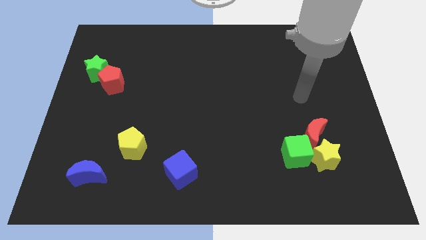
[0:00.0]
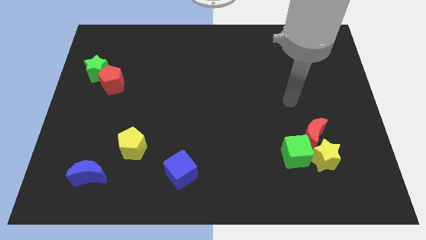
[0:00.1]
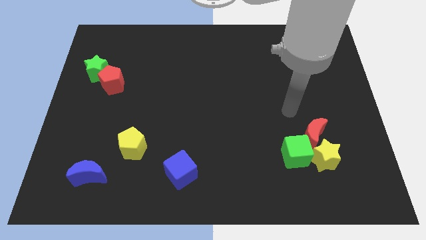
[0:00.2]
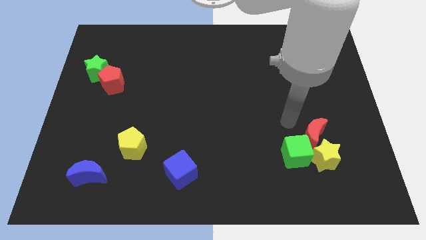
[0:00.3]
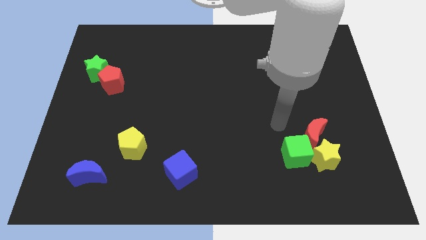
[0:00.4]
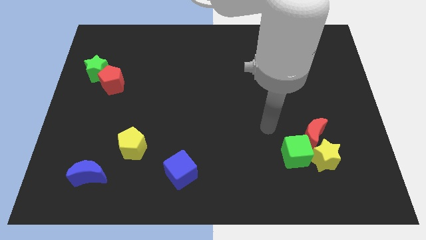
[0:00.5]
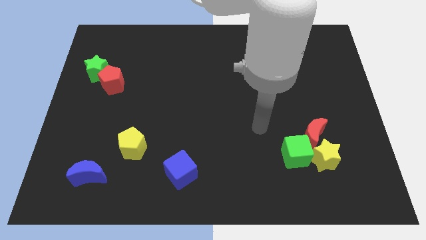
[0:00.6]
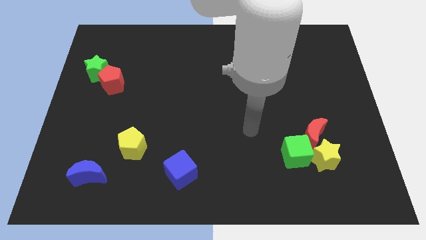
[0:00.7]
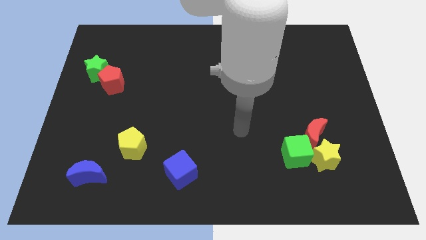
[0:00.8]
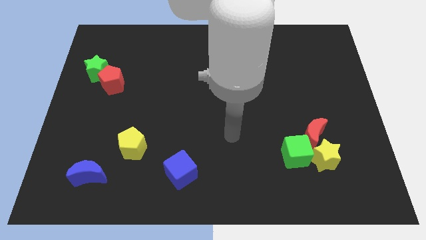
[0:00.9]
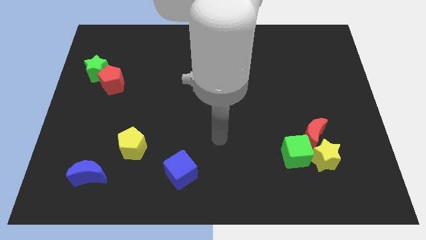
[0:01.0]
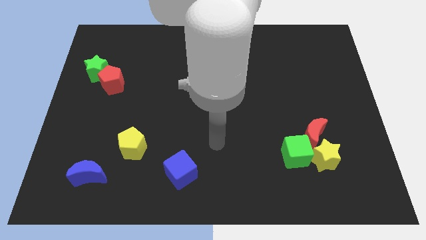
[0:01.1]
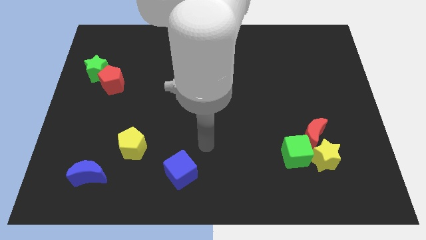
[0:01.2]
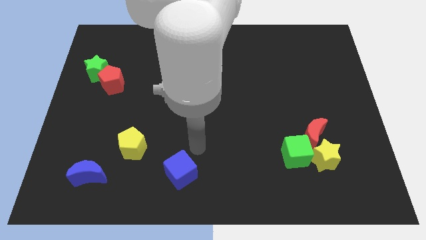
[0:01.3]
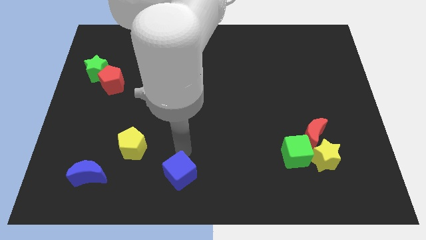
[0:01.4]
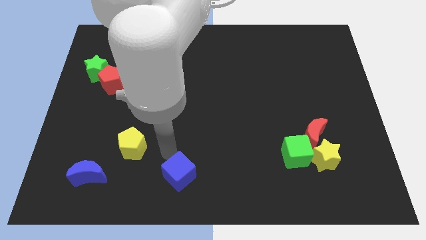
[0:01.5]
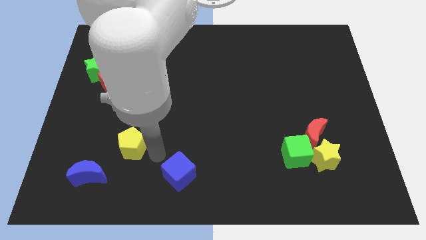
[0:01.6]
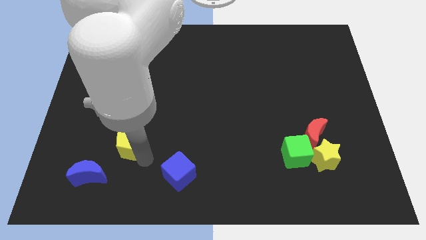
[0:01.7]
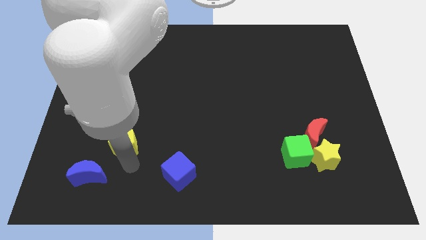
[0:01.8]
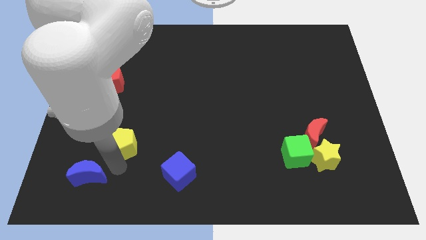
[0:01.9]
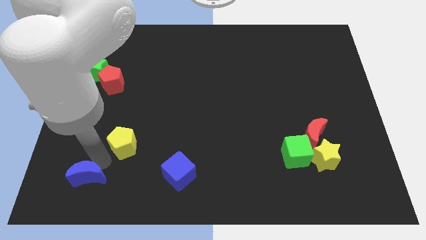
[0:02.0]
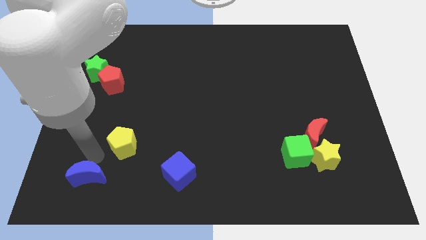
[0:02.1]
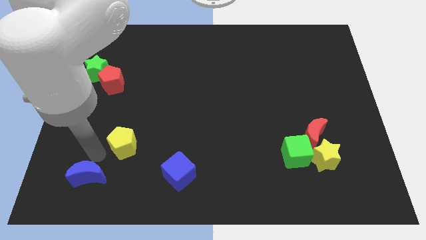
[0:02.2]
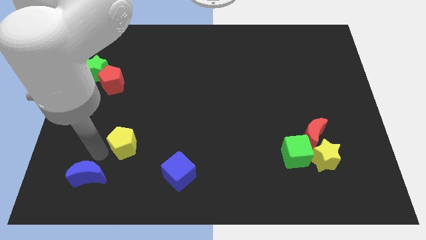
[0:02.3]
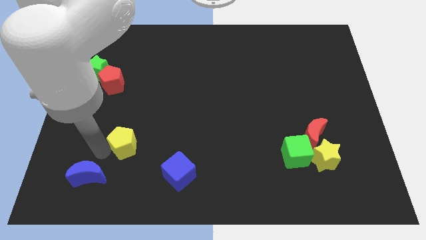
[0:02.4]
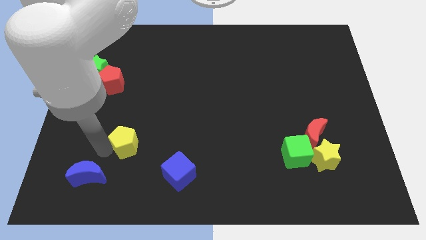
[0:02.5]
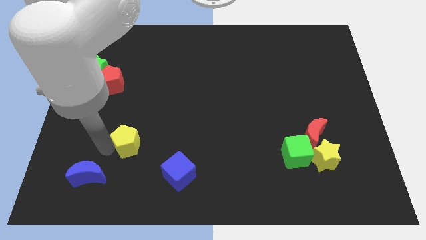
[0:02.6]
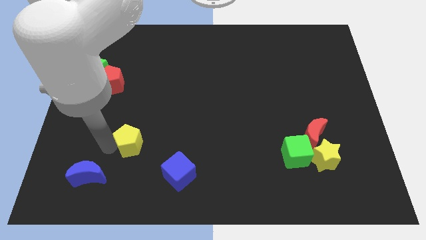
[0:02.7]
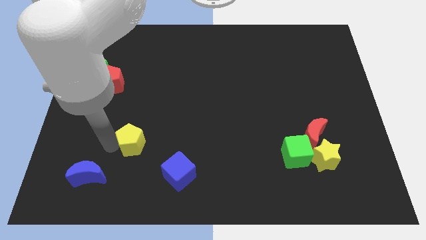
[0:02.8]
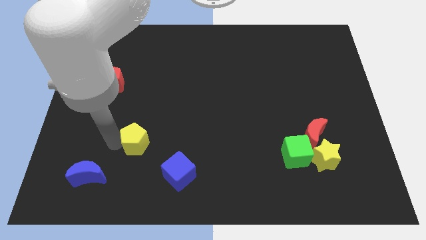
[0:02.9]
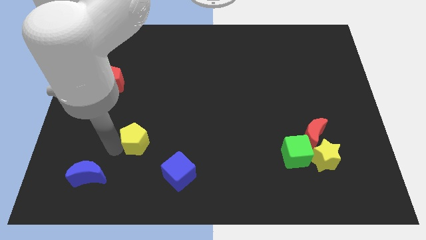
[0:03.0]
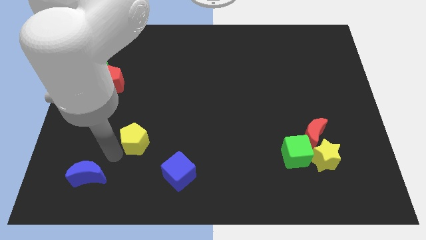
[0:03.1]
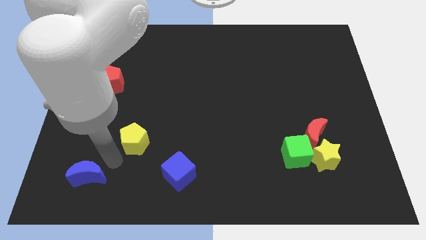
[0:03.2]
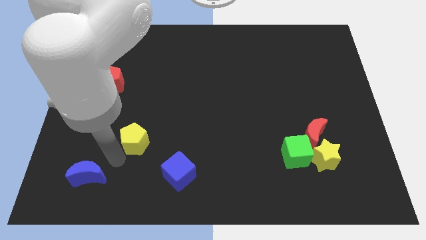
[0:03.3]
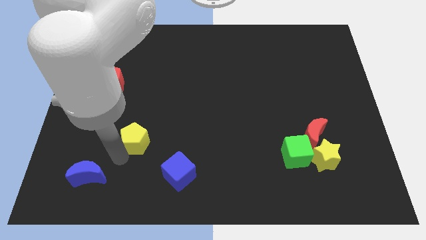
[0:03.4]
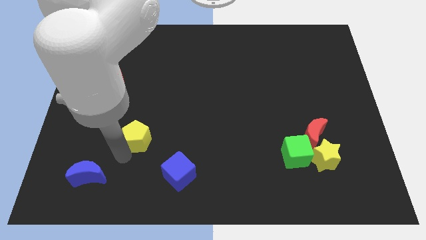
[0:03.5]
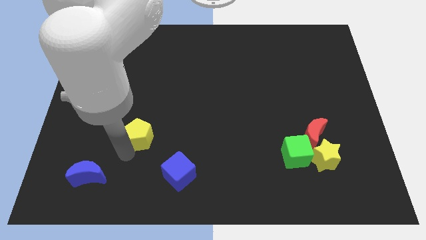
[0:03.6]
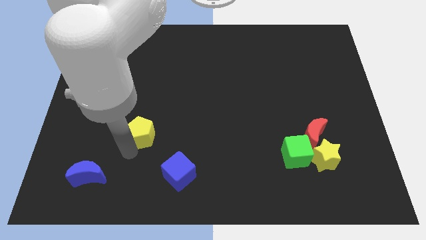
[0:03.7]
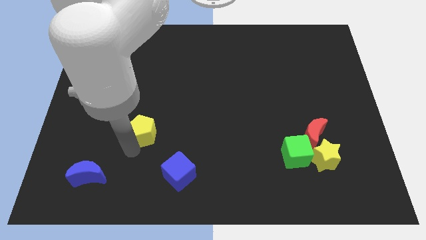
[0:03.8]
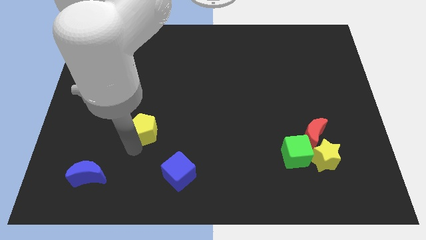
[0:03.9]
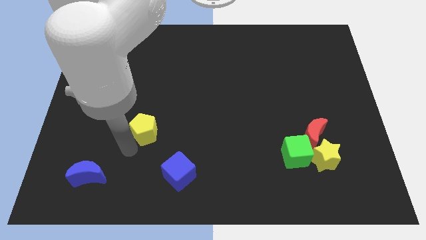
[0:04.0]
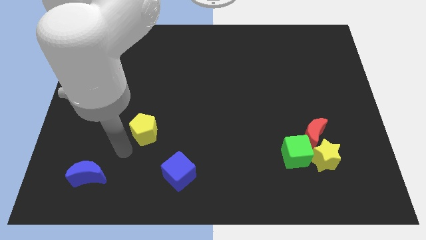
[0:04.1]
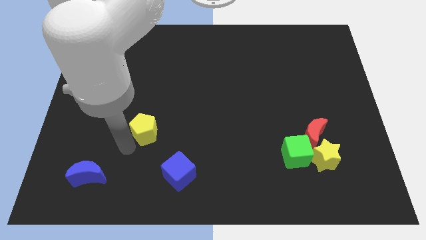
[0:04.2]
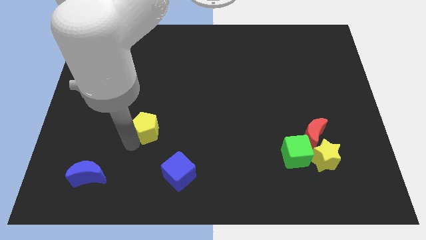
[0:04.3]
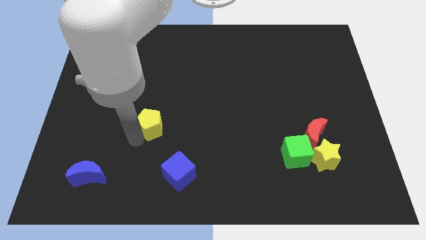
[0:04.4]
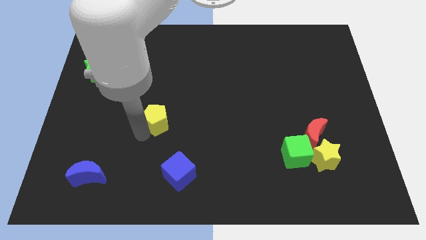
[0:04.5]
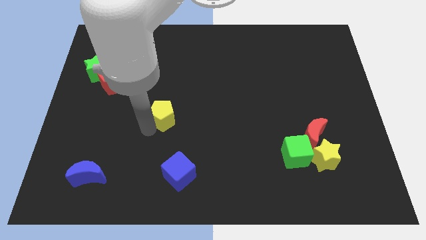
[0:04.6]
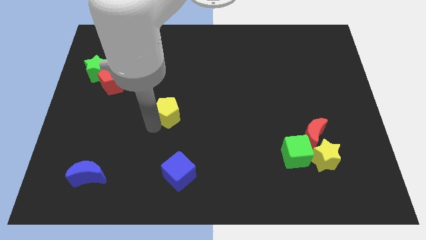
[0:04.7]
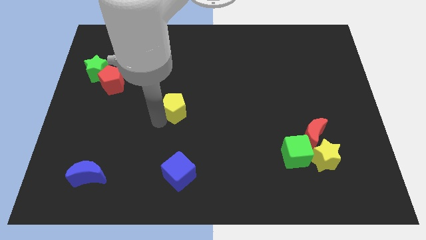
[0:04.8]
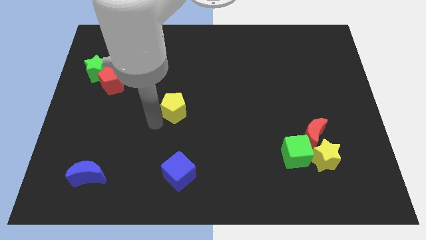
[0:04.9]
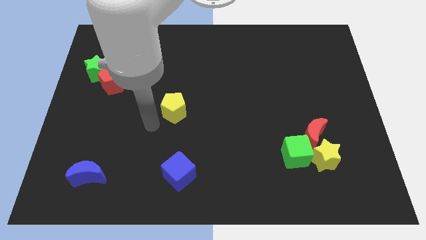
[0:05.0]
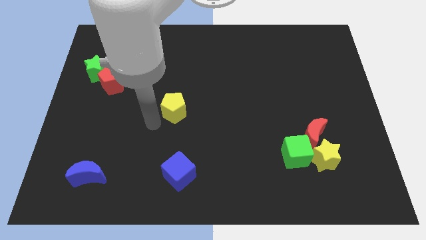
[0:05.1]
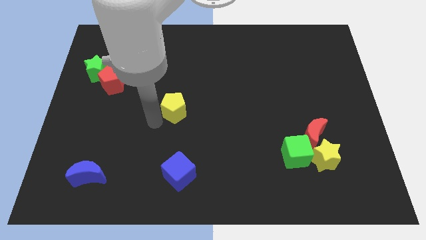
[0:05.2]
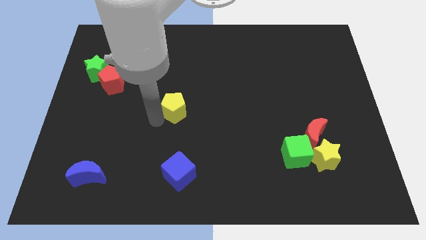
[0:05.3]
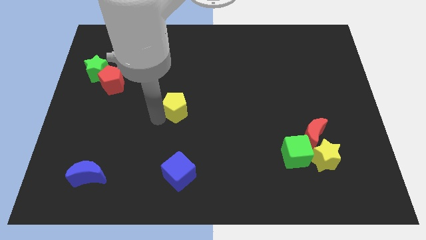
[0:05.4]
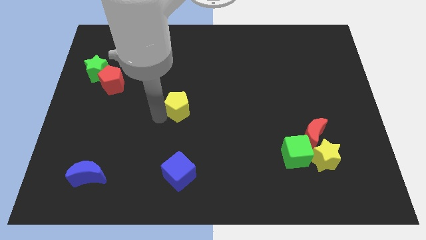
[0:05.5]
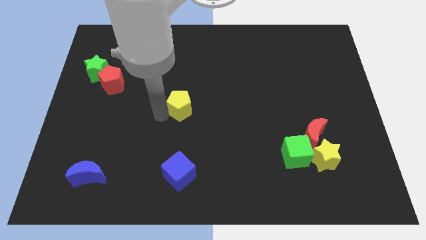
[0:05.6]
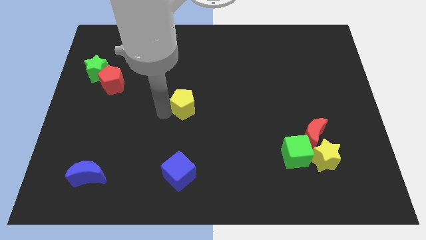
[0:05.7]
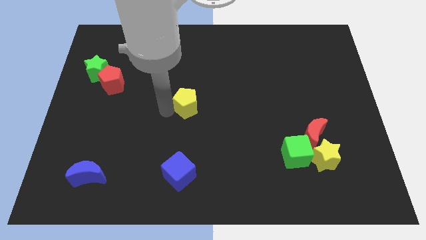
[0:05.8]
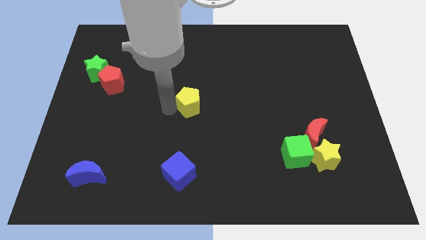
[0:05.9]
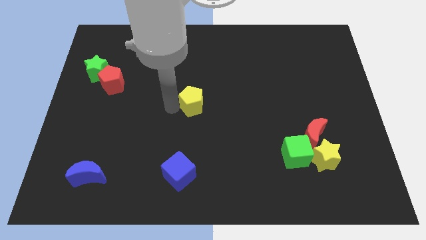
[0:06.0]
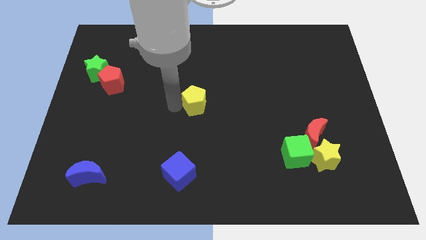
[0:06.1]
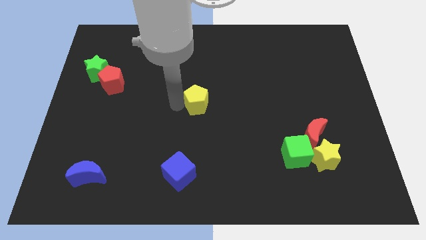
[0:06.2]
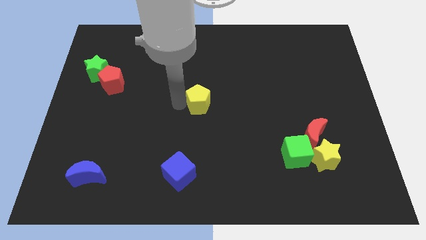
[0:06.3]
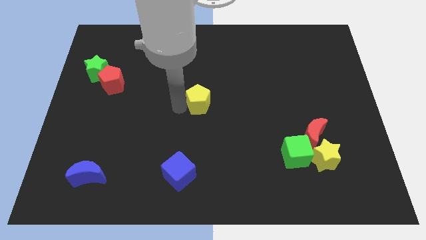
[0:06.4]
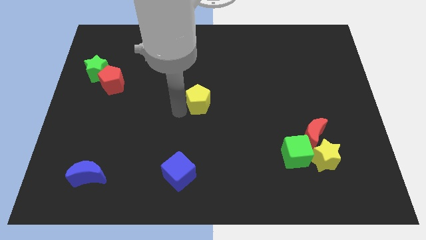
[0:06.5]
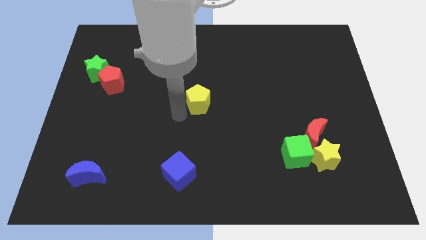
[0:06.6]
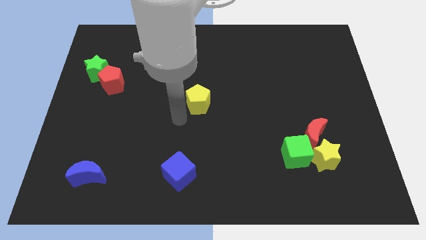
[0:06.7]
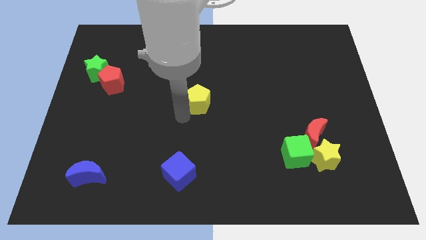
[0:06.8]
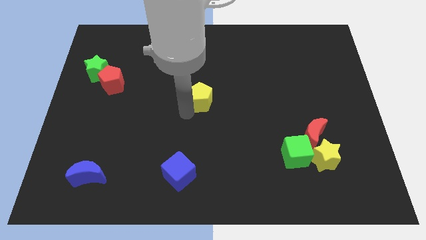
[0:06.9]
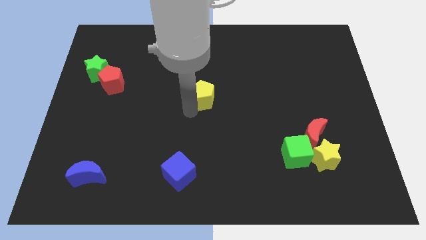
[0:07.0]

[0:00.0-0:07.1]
slide the yellow pentagon diagonally up and right

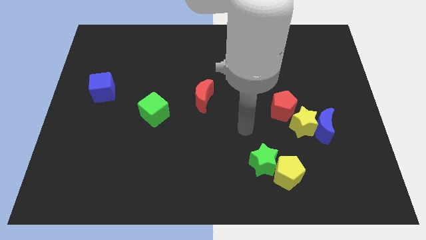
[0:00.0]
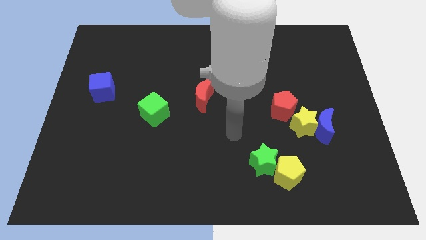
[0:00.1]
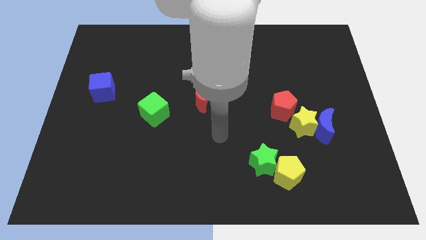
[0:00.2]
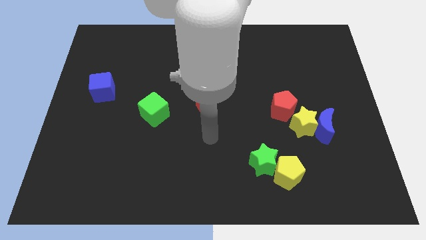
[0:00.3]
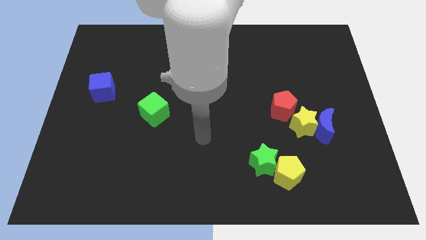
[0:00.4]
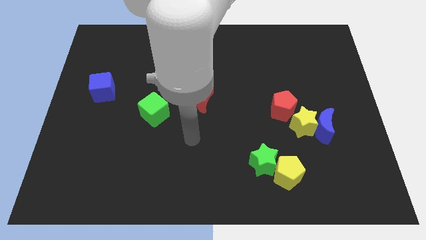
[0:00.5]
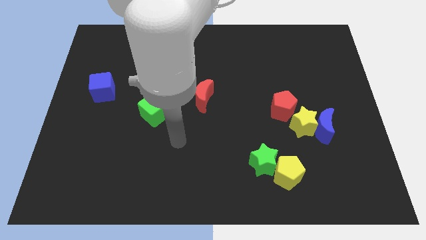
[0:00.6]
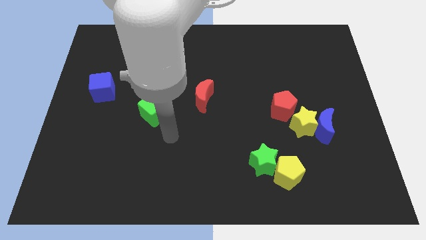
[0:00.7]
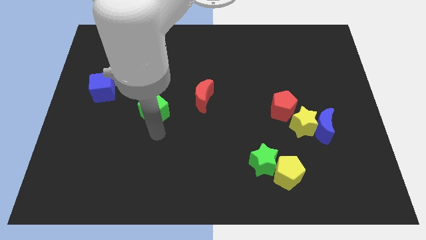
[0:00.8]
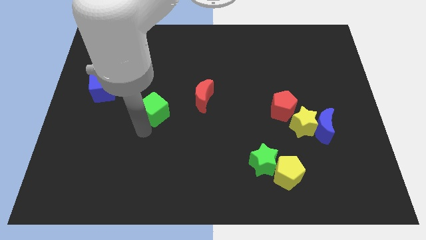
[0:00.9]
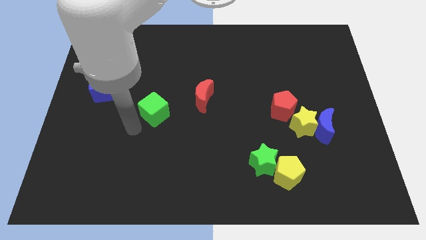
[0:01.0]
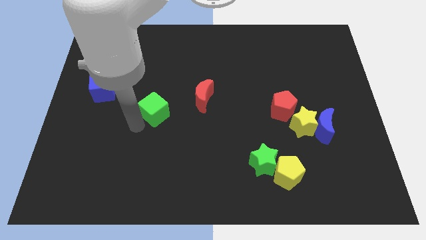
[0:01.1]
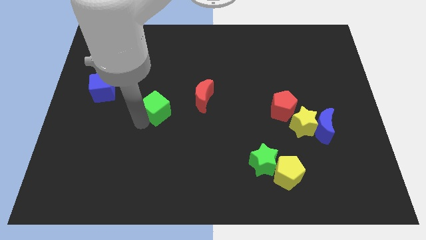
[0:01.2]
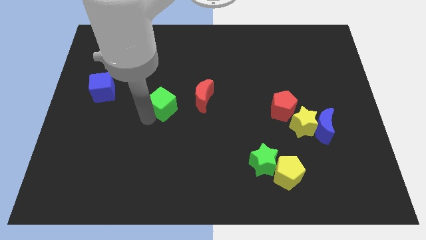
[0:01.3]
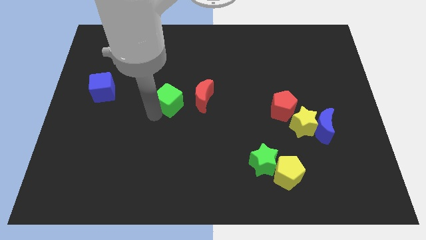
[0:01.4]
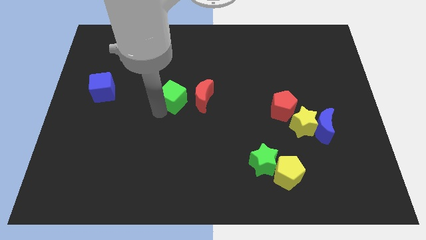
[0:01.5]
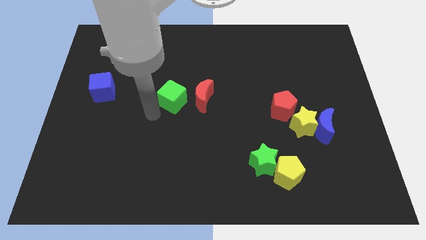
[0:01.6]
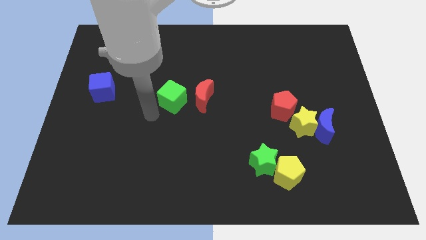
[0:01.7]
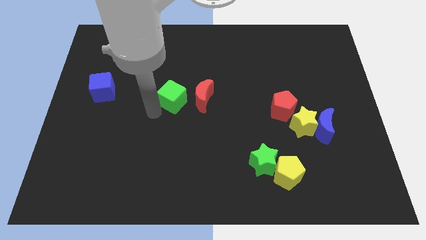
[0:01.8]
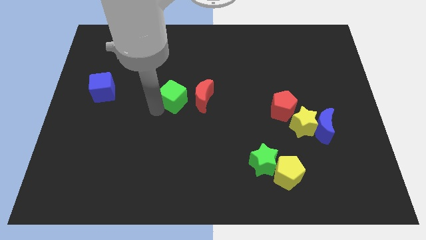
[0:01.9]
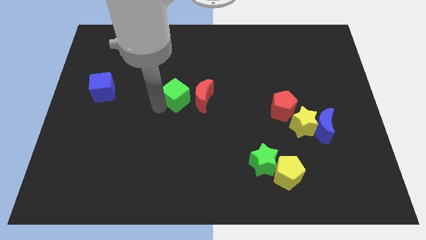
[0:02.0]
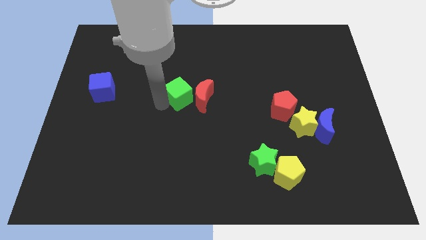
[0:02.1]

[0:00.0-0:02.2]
push the green cube up and right diagonally a little
